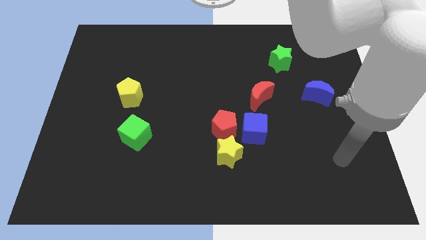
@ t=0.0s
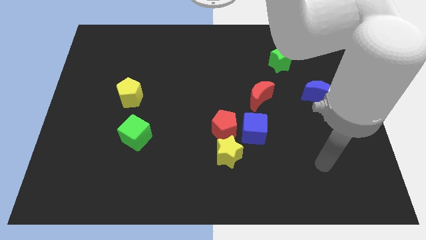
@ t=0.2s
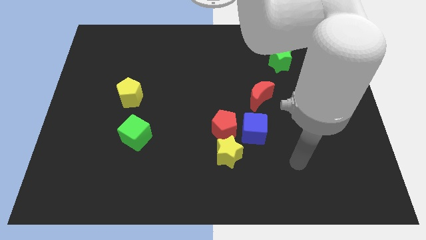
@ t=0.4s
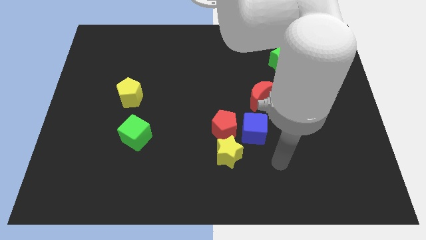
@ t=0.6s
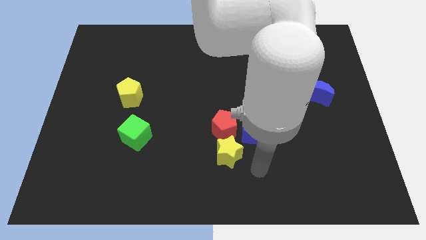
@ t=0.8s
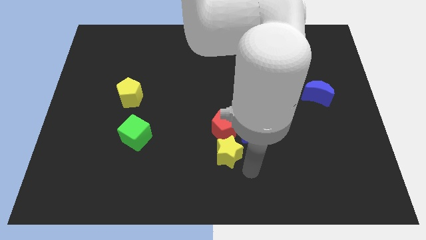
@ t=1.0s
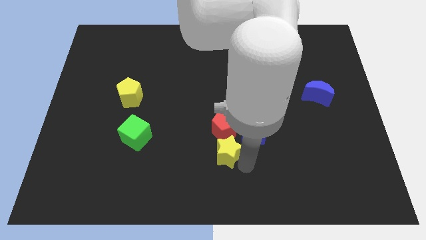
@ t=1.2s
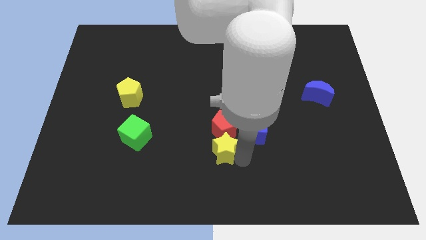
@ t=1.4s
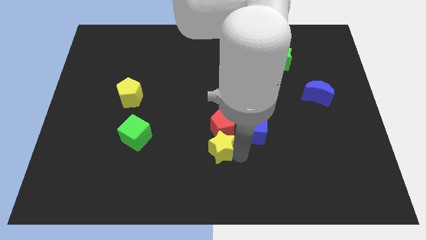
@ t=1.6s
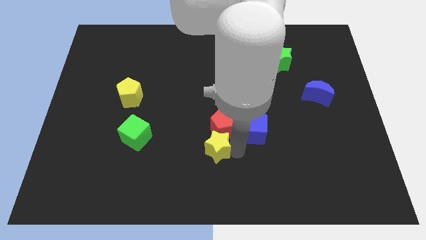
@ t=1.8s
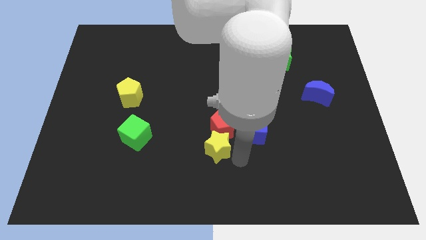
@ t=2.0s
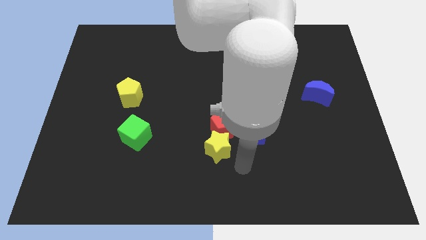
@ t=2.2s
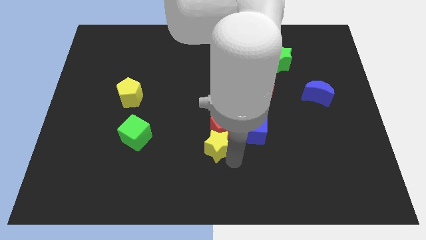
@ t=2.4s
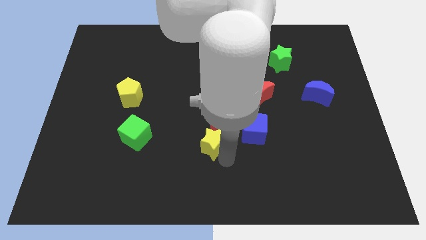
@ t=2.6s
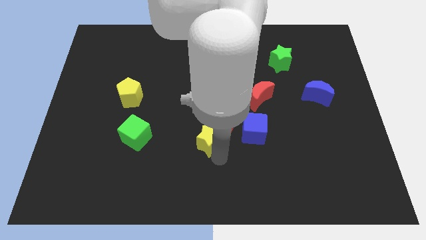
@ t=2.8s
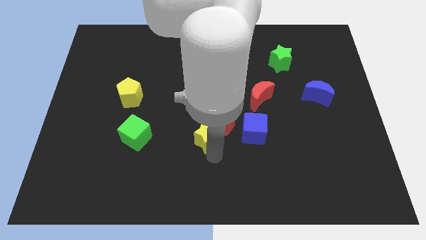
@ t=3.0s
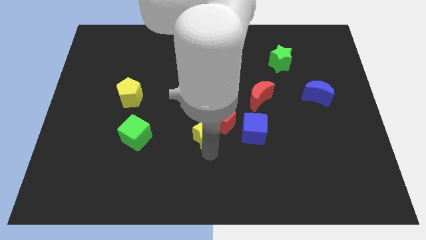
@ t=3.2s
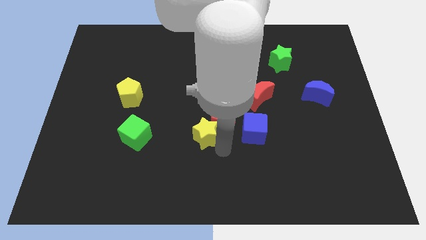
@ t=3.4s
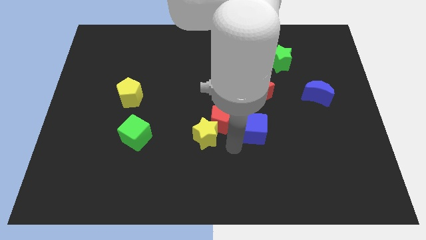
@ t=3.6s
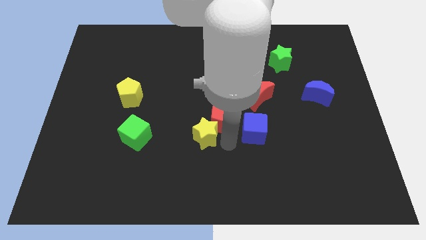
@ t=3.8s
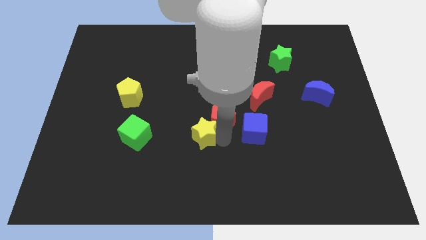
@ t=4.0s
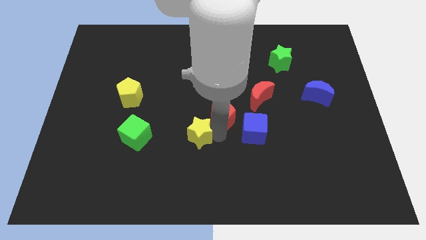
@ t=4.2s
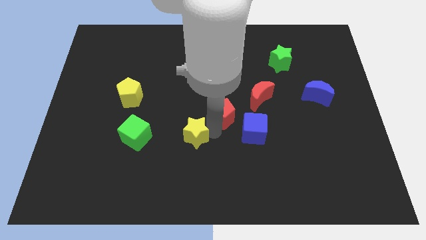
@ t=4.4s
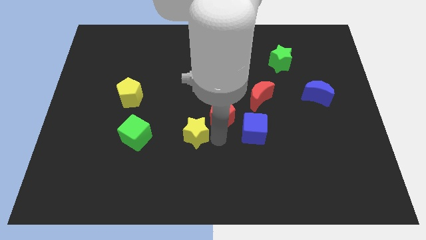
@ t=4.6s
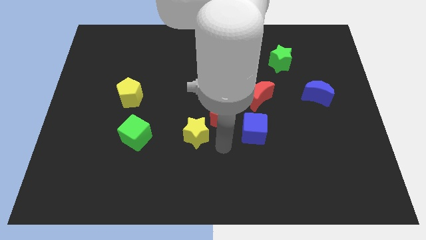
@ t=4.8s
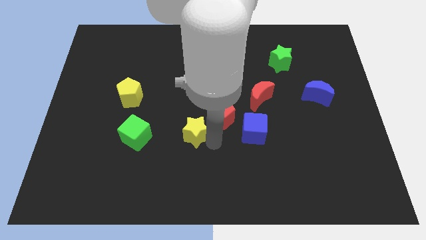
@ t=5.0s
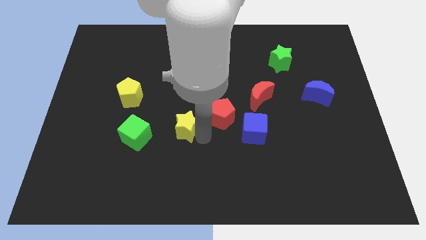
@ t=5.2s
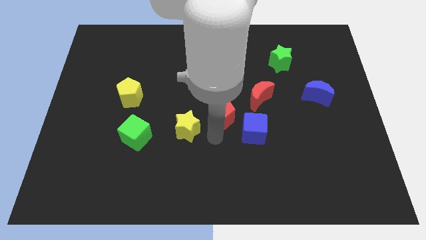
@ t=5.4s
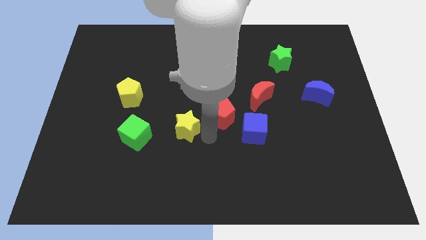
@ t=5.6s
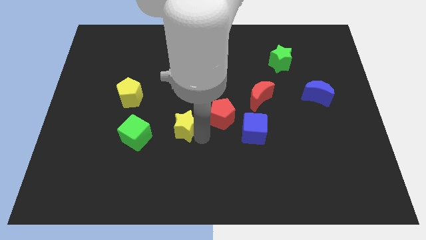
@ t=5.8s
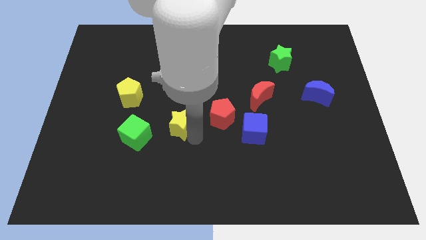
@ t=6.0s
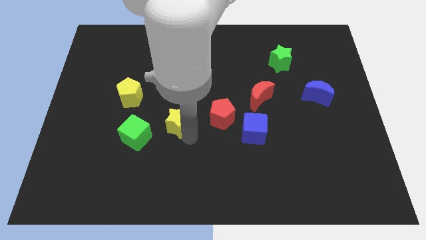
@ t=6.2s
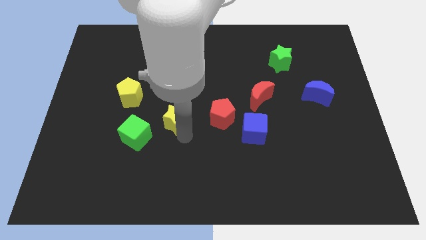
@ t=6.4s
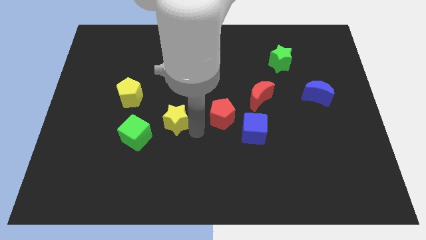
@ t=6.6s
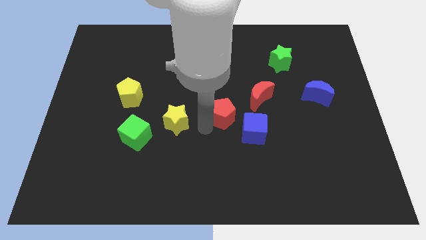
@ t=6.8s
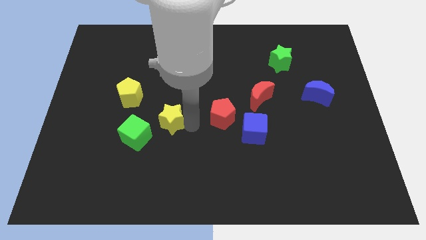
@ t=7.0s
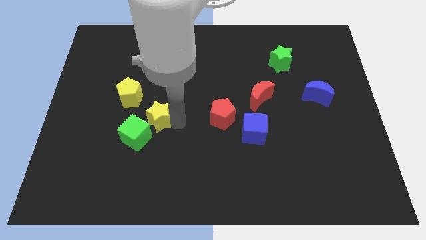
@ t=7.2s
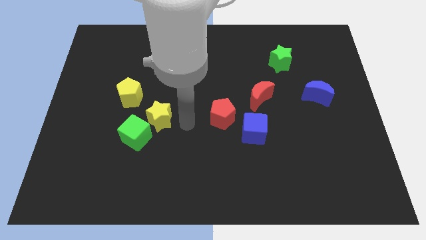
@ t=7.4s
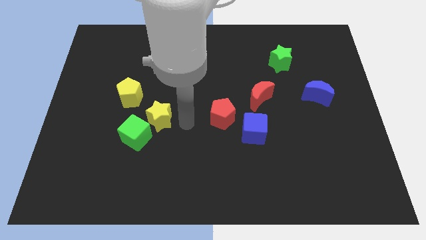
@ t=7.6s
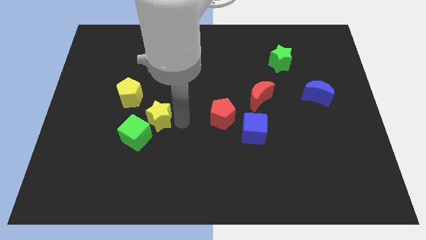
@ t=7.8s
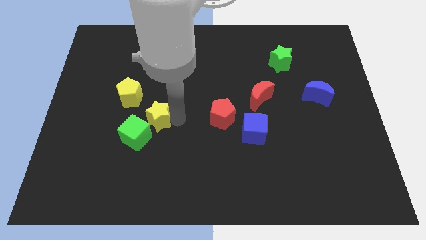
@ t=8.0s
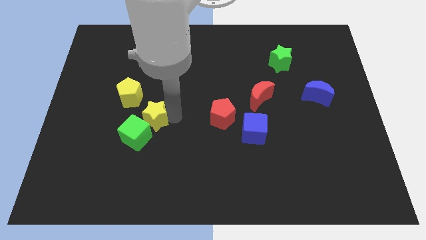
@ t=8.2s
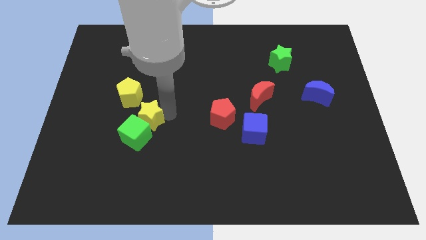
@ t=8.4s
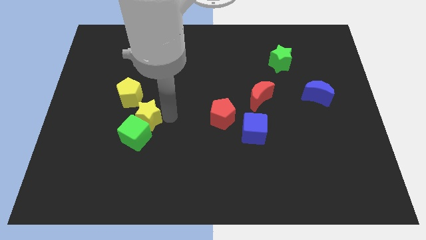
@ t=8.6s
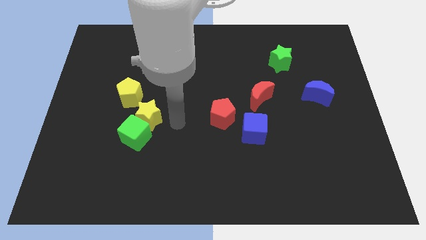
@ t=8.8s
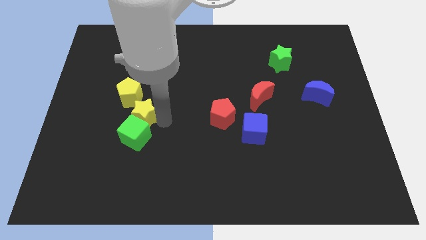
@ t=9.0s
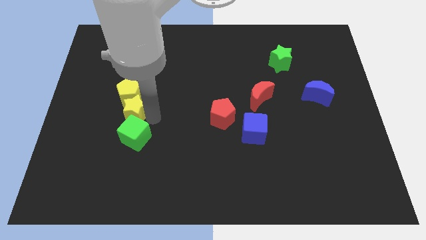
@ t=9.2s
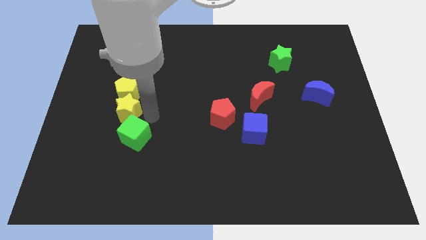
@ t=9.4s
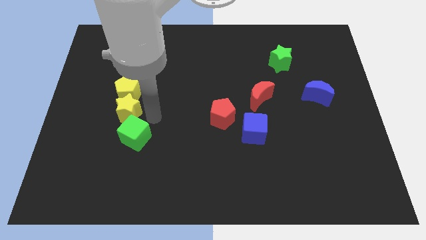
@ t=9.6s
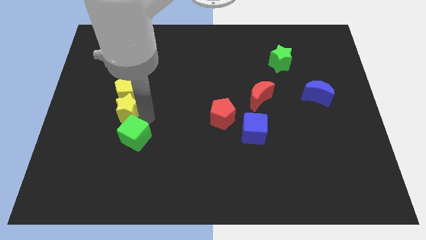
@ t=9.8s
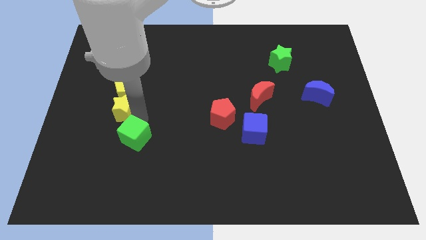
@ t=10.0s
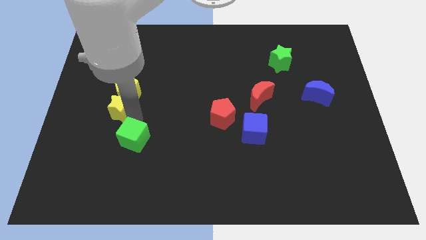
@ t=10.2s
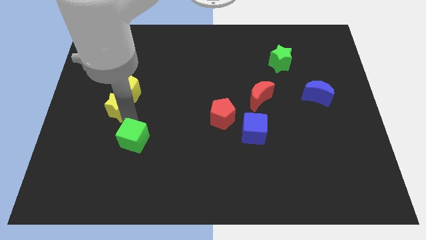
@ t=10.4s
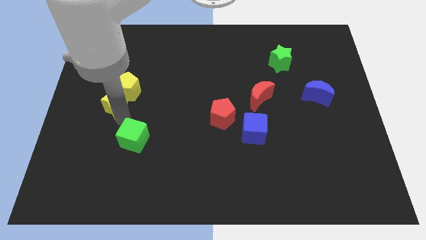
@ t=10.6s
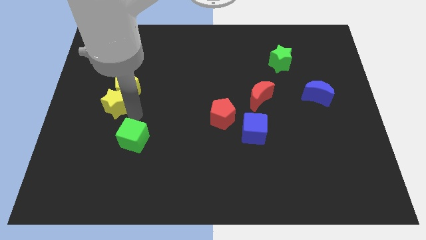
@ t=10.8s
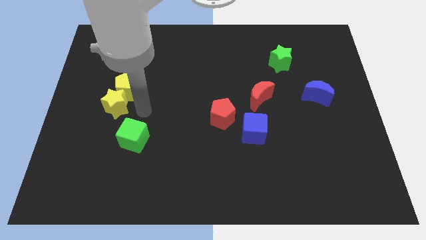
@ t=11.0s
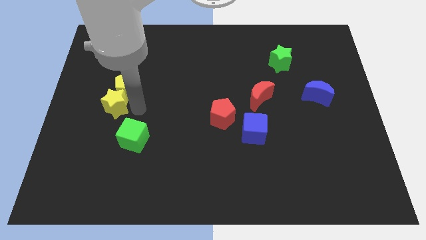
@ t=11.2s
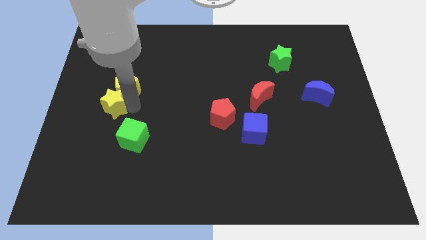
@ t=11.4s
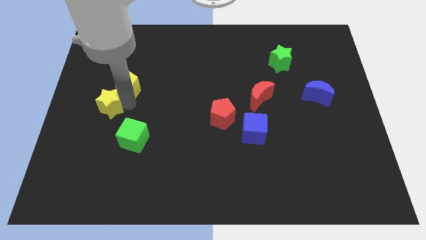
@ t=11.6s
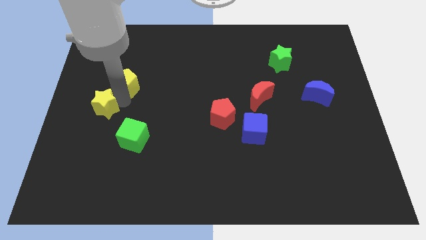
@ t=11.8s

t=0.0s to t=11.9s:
slide the yellow star to the center left
